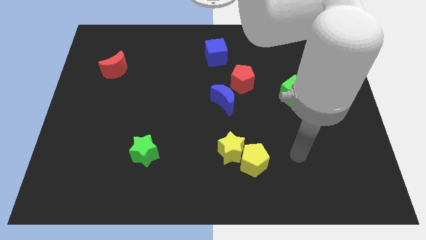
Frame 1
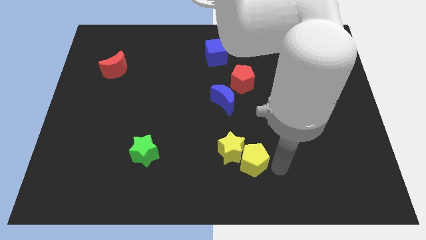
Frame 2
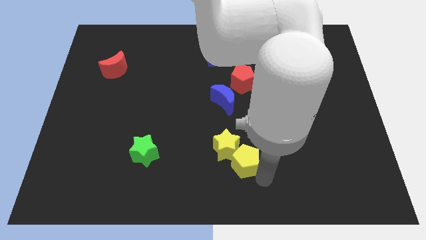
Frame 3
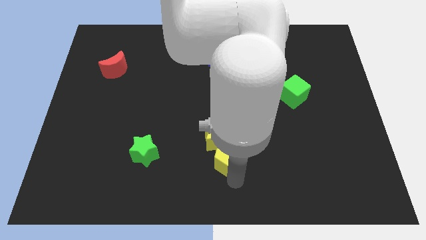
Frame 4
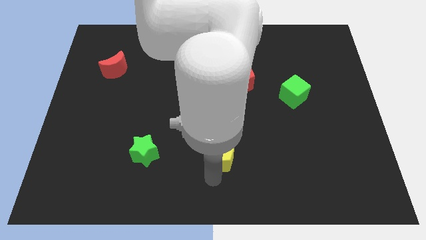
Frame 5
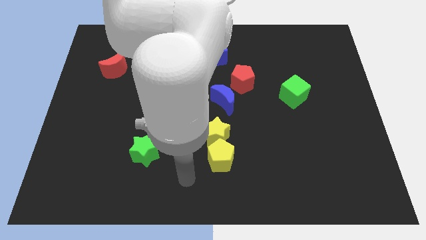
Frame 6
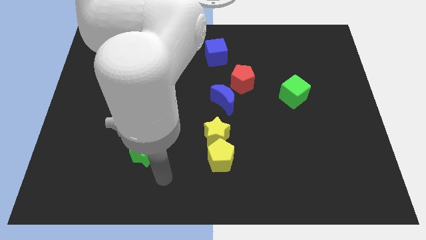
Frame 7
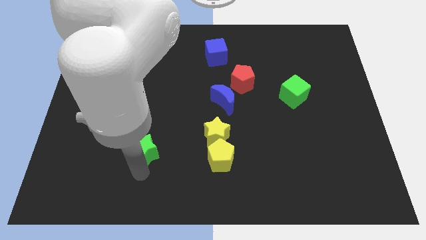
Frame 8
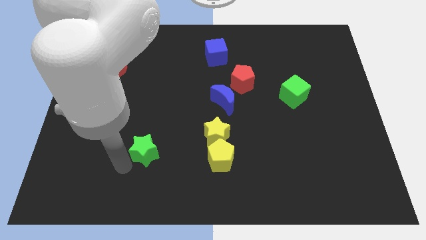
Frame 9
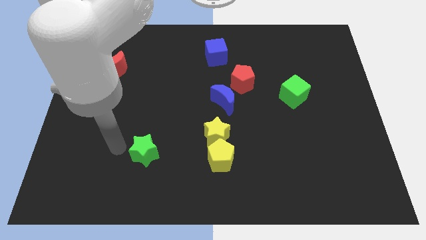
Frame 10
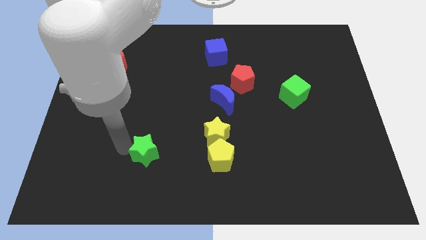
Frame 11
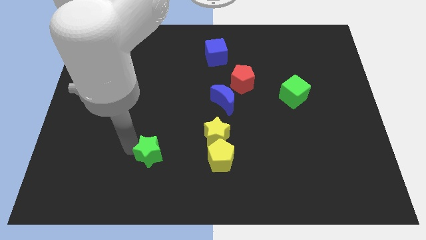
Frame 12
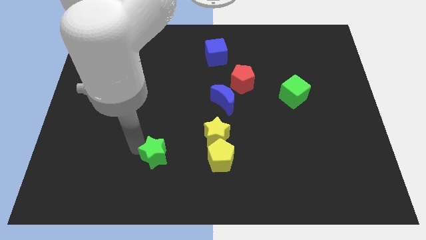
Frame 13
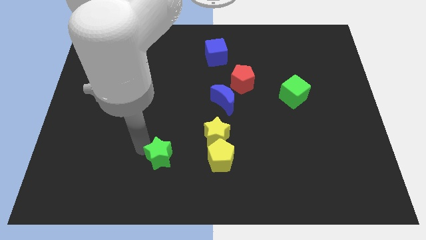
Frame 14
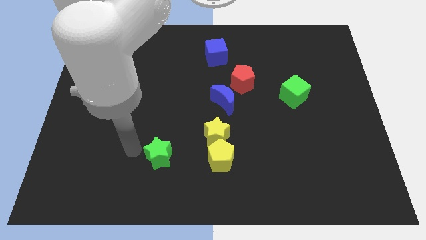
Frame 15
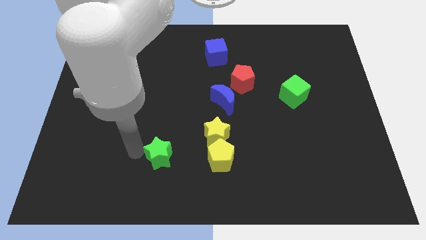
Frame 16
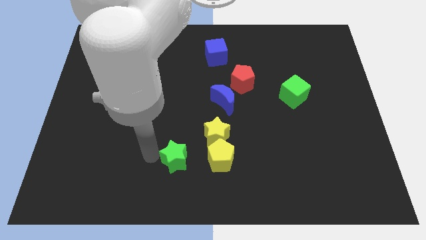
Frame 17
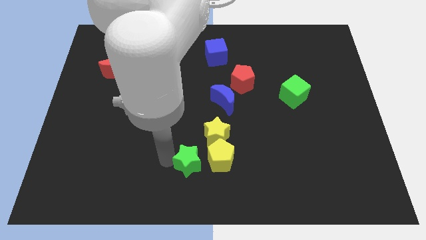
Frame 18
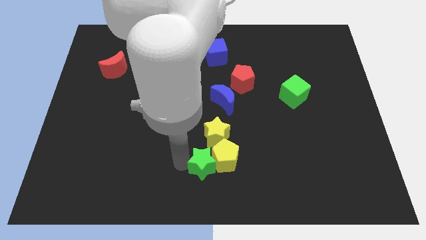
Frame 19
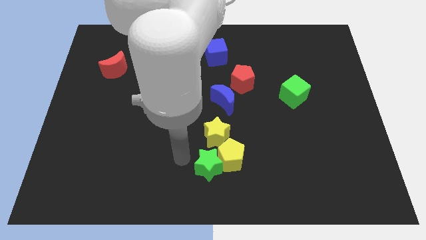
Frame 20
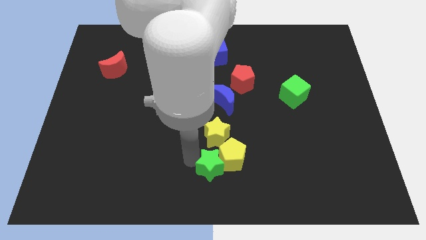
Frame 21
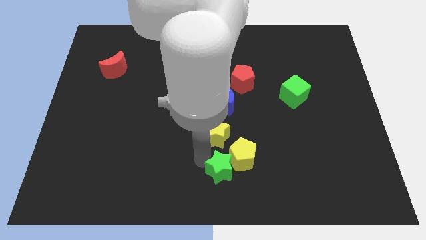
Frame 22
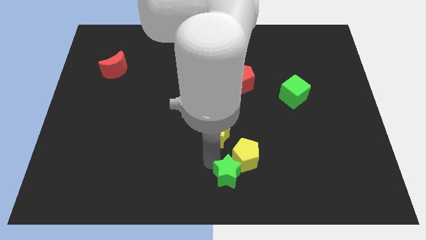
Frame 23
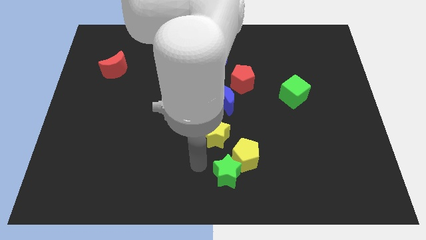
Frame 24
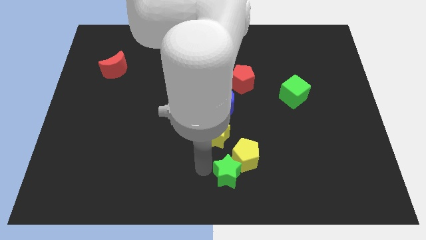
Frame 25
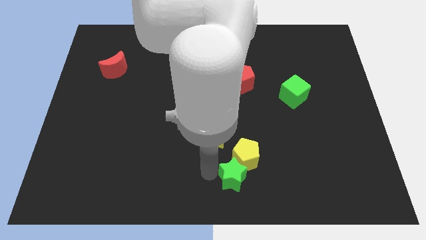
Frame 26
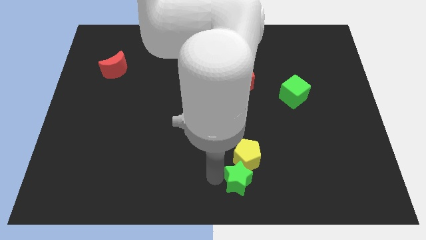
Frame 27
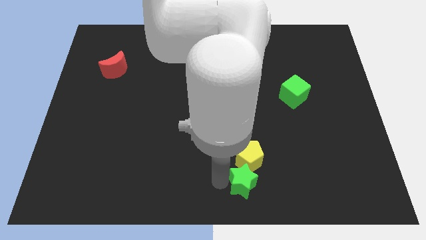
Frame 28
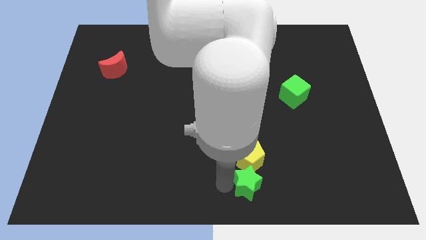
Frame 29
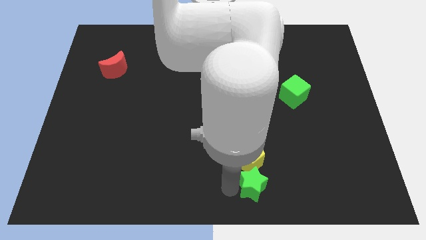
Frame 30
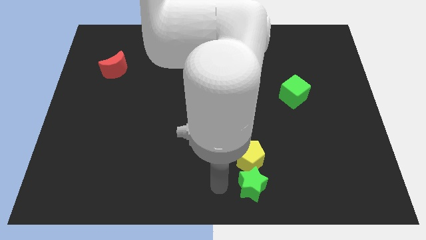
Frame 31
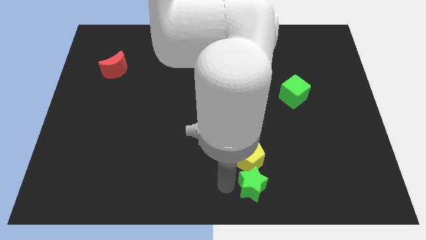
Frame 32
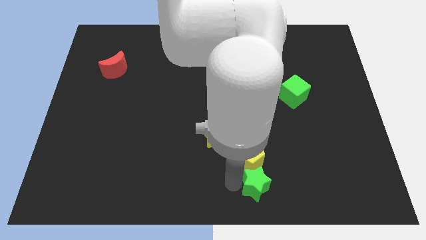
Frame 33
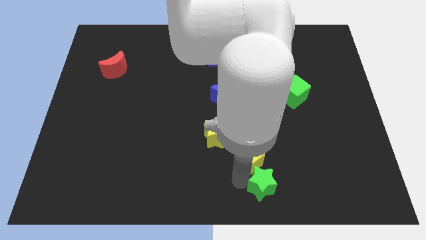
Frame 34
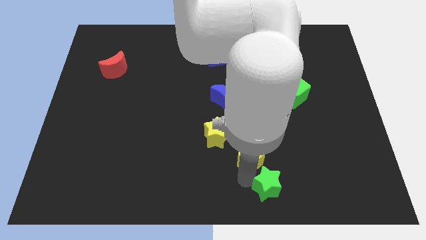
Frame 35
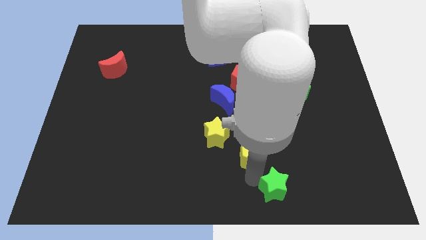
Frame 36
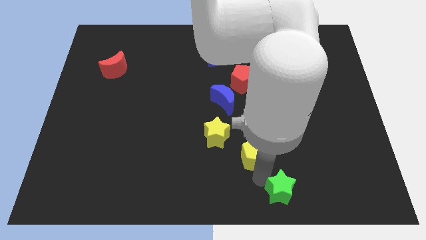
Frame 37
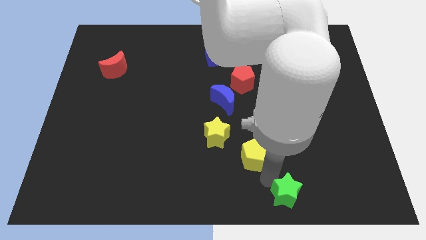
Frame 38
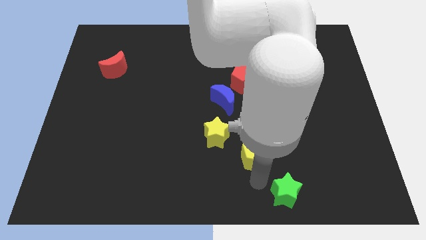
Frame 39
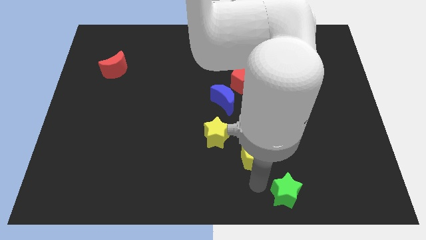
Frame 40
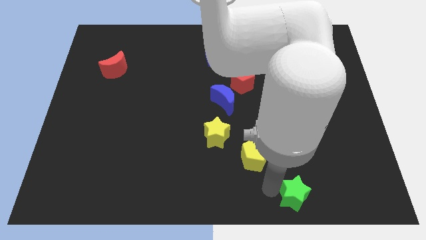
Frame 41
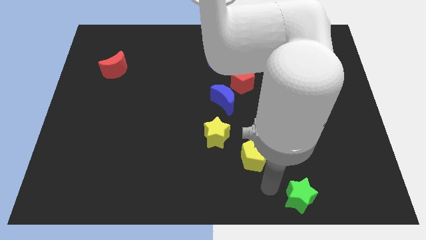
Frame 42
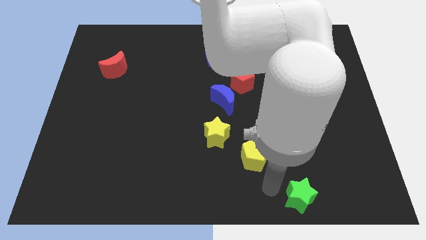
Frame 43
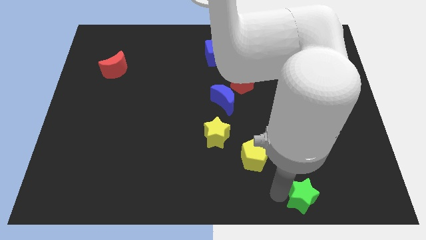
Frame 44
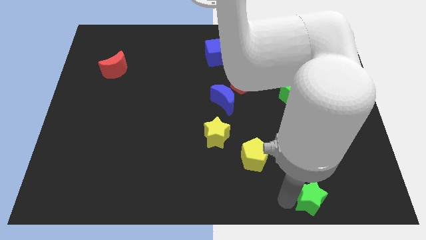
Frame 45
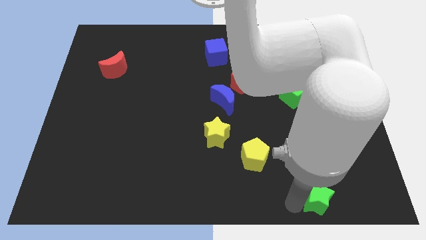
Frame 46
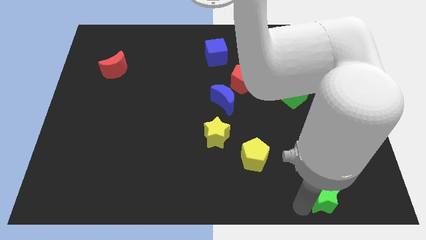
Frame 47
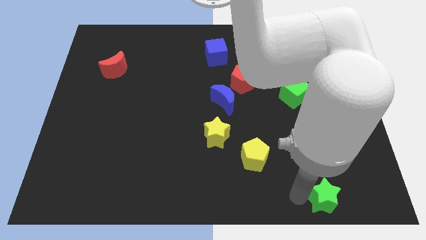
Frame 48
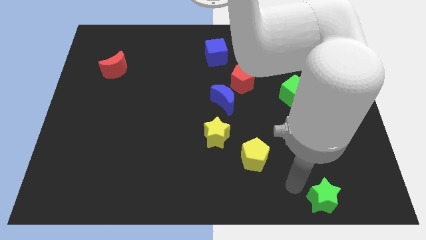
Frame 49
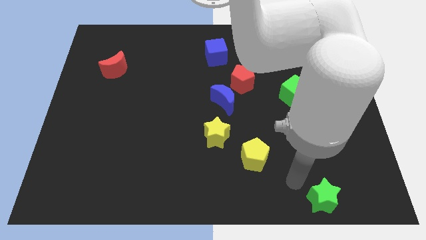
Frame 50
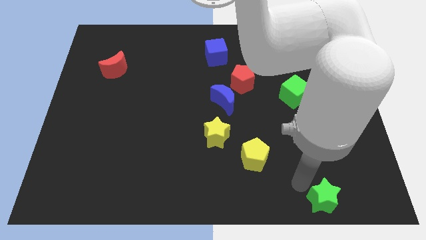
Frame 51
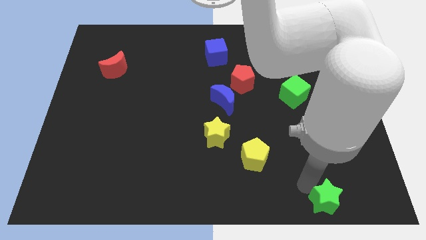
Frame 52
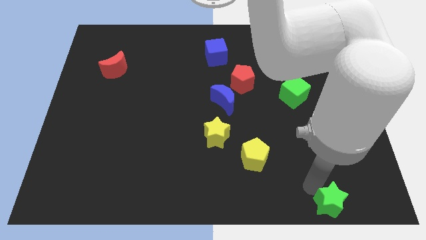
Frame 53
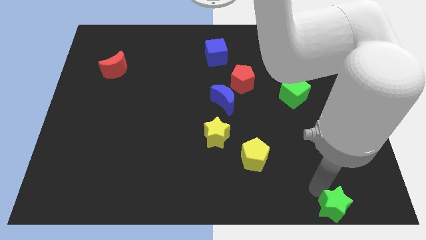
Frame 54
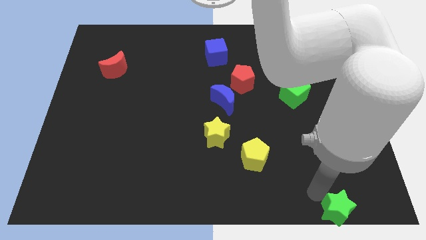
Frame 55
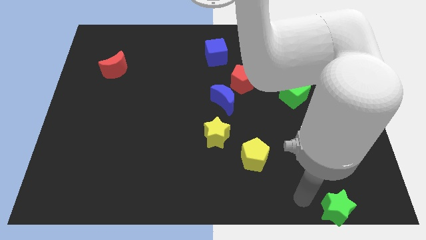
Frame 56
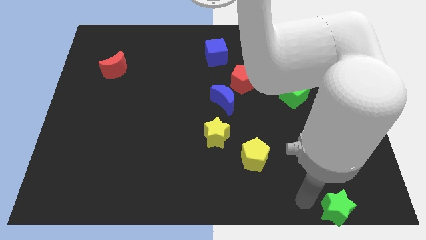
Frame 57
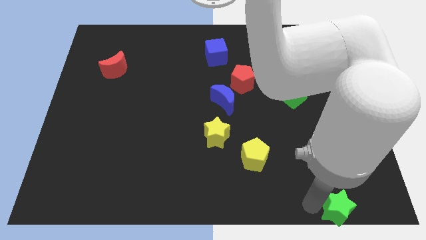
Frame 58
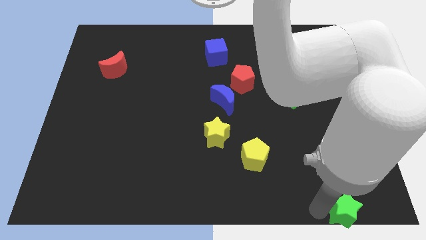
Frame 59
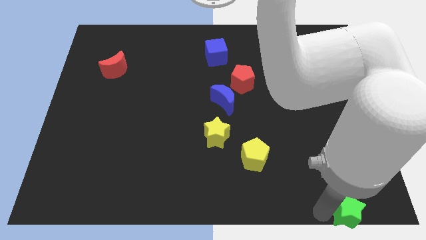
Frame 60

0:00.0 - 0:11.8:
push the green star to the lower right corner

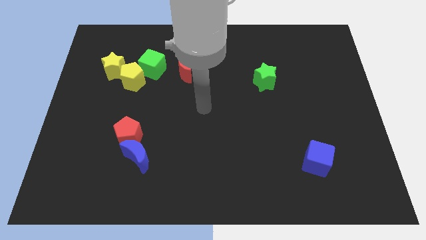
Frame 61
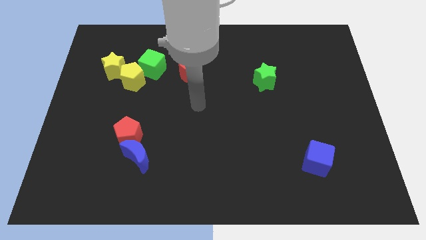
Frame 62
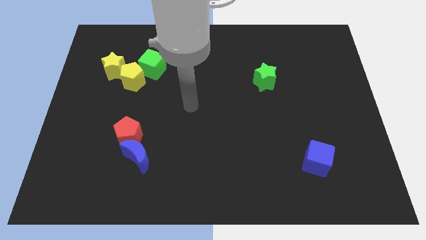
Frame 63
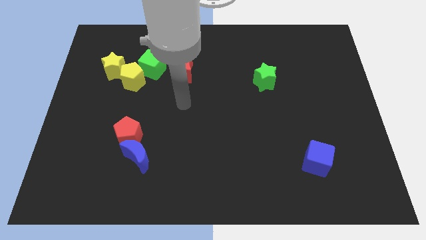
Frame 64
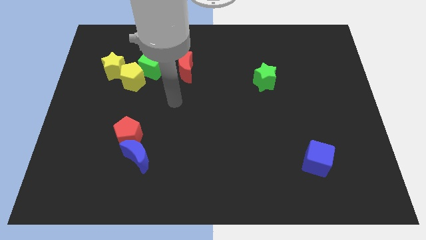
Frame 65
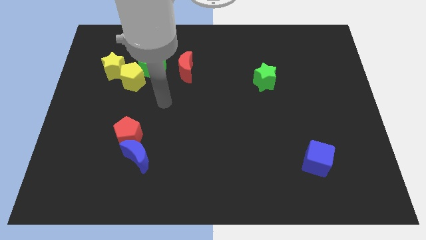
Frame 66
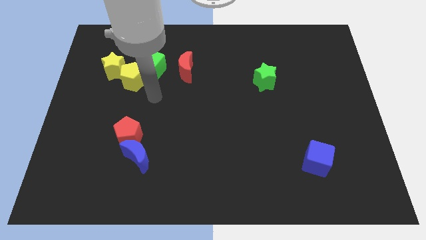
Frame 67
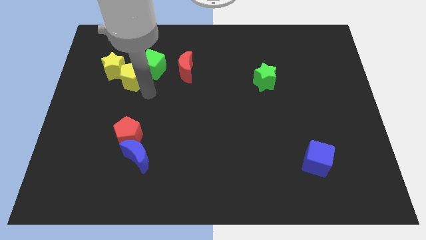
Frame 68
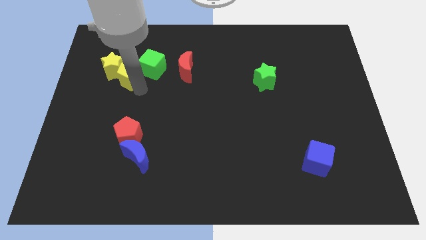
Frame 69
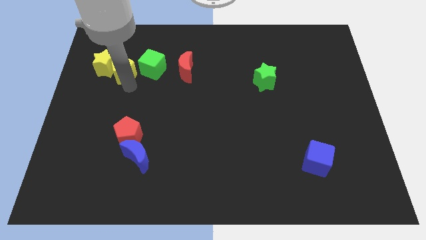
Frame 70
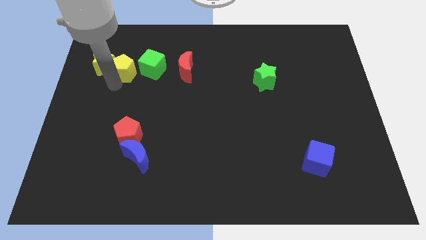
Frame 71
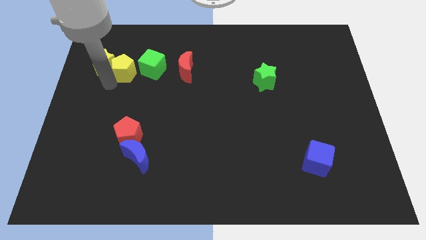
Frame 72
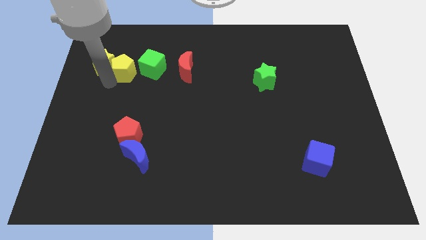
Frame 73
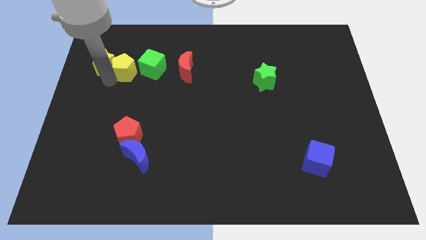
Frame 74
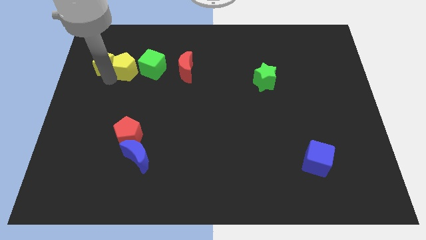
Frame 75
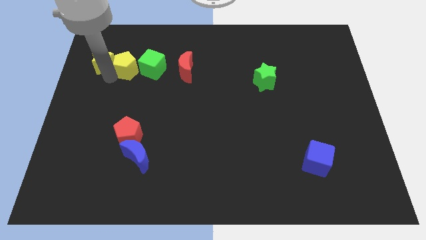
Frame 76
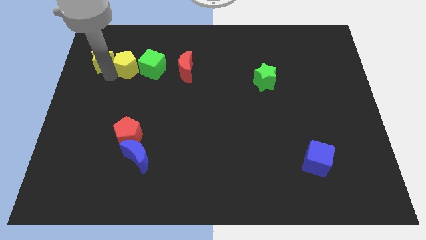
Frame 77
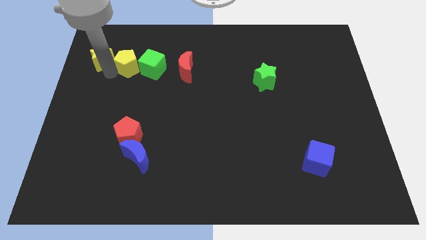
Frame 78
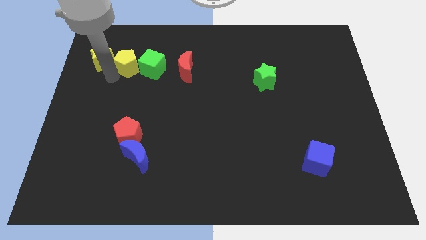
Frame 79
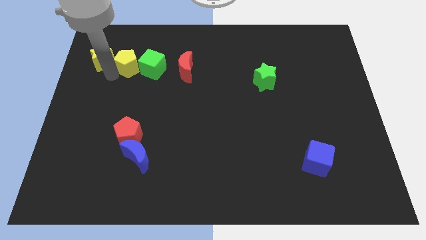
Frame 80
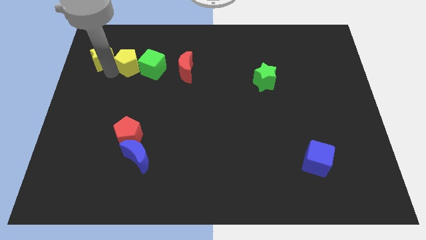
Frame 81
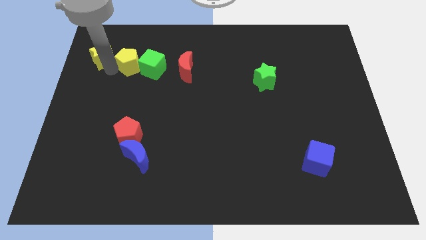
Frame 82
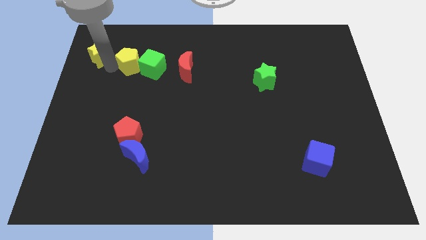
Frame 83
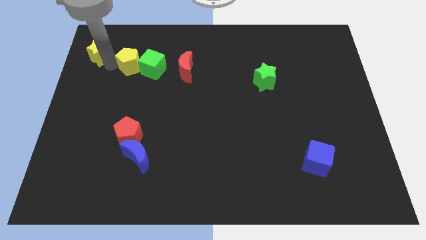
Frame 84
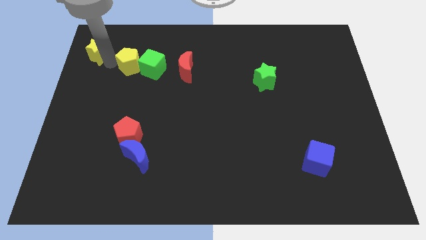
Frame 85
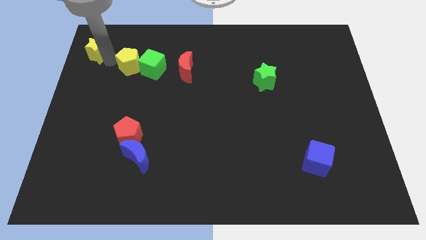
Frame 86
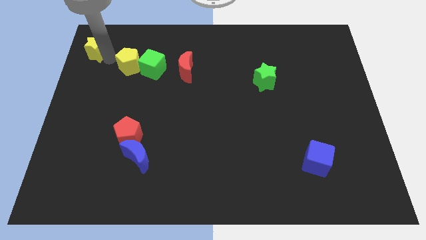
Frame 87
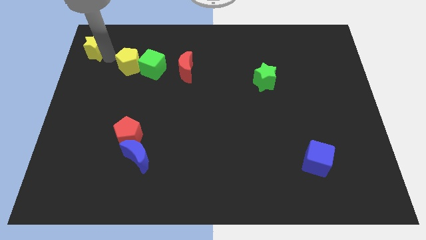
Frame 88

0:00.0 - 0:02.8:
put the yellow star to the upper left corner
